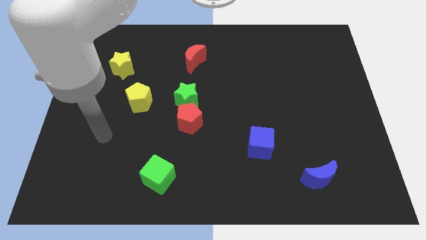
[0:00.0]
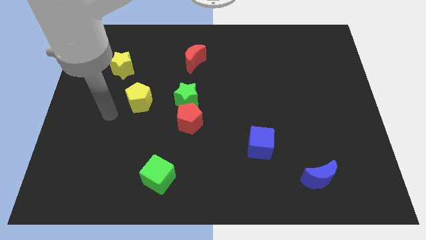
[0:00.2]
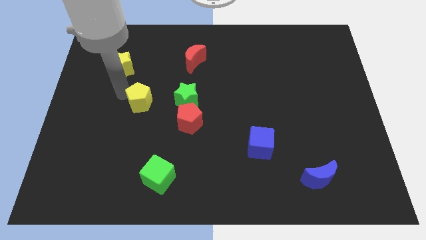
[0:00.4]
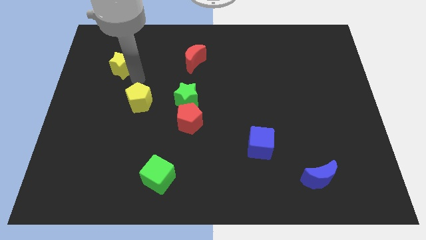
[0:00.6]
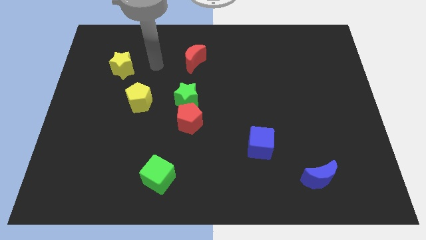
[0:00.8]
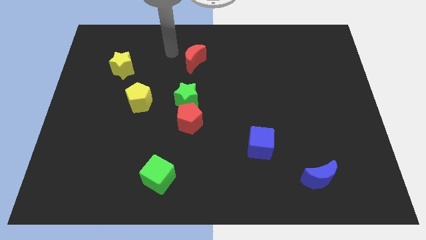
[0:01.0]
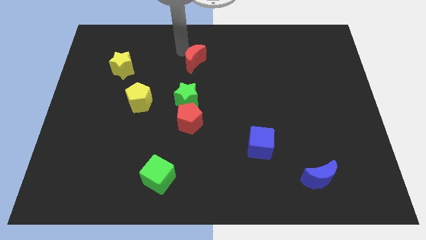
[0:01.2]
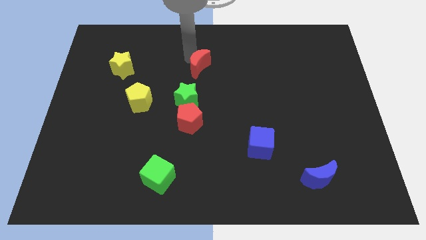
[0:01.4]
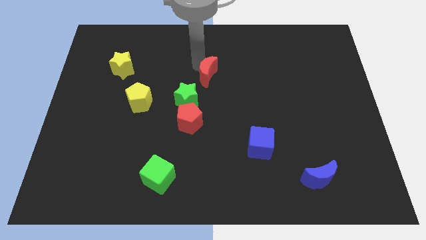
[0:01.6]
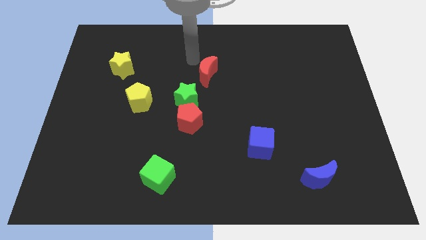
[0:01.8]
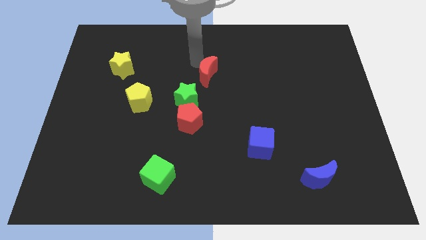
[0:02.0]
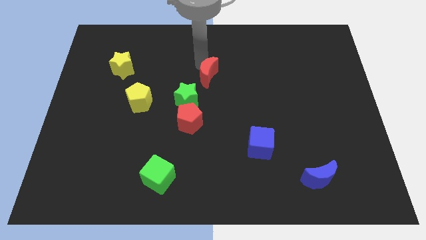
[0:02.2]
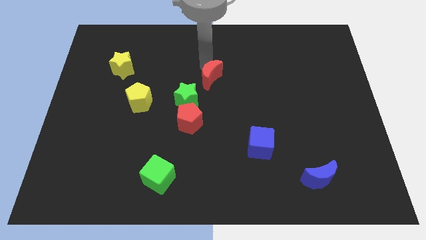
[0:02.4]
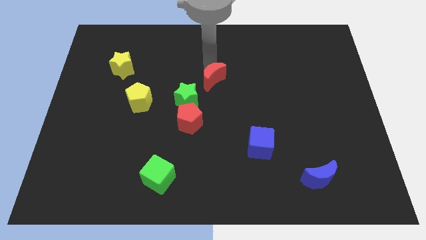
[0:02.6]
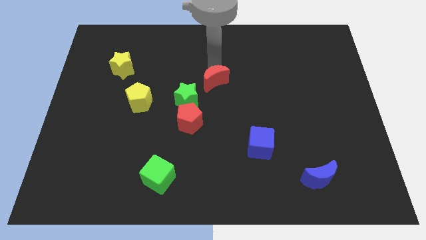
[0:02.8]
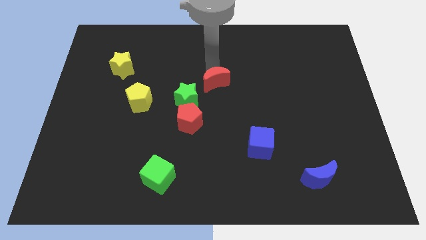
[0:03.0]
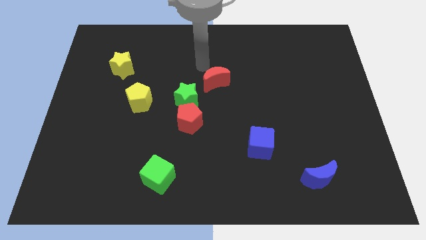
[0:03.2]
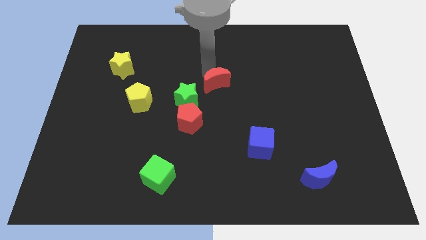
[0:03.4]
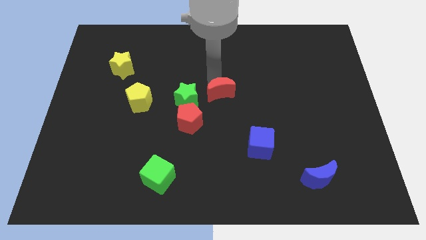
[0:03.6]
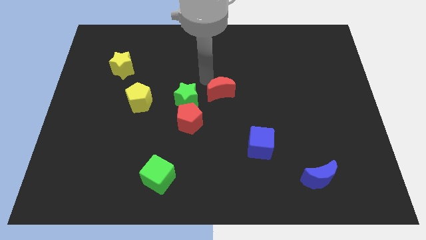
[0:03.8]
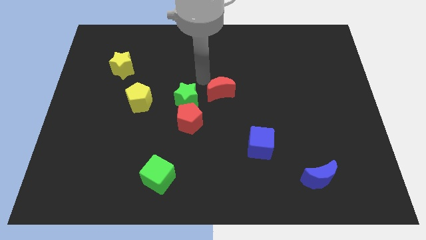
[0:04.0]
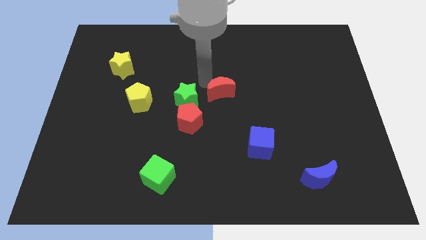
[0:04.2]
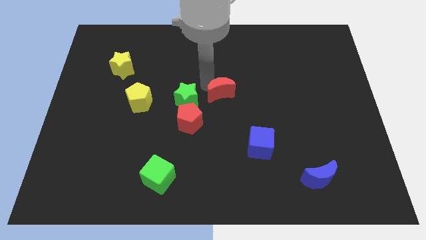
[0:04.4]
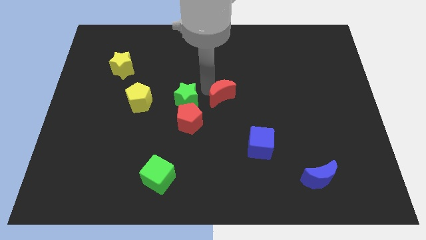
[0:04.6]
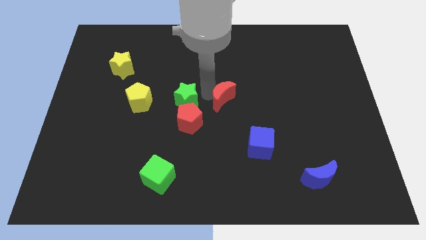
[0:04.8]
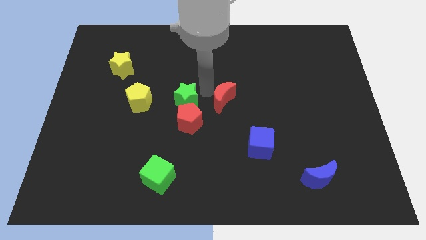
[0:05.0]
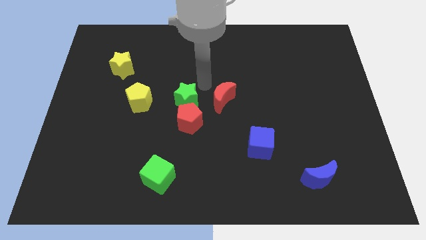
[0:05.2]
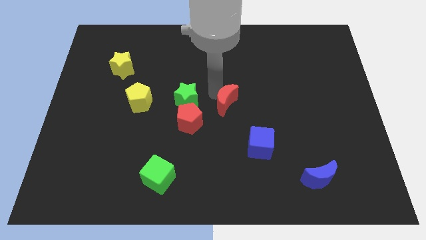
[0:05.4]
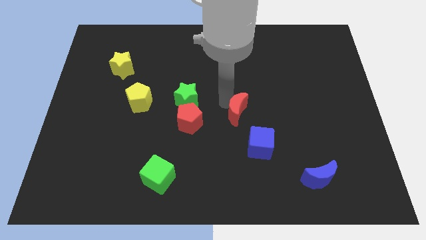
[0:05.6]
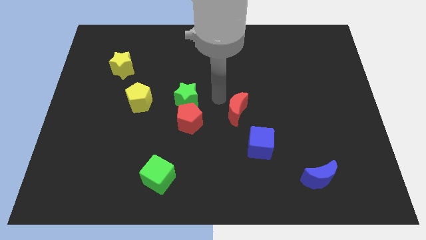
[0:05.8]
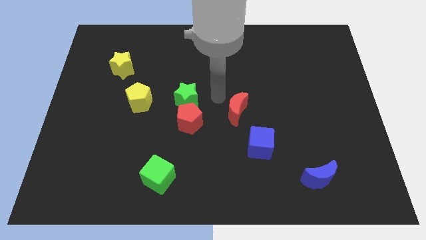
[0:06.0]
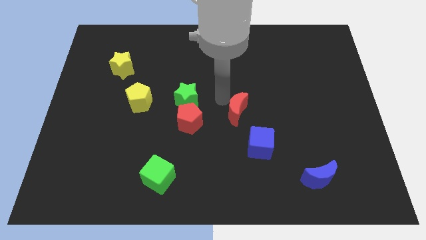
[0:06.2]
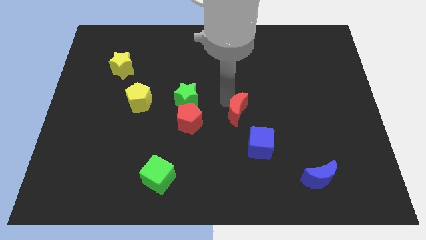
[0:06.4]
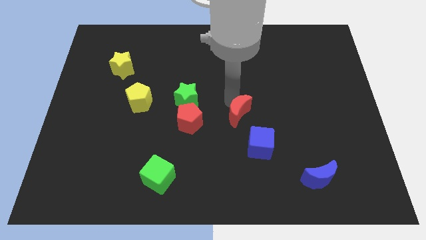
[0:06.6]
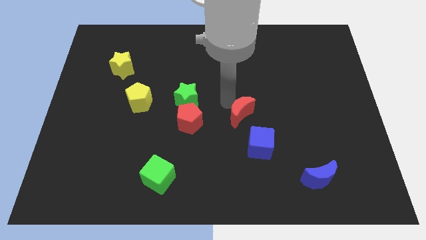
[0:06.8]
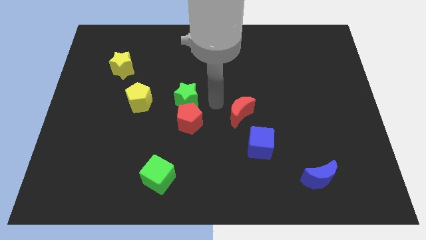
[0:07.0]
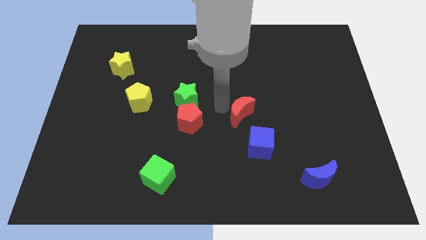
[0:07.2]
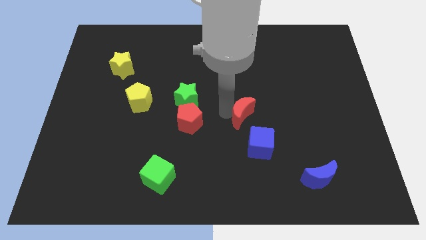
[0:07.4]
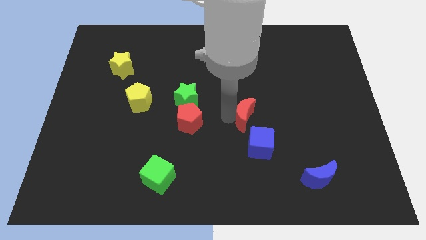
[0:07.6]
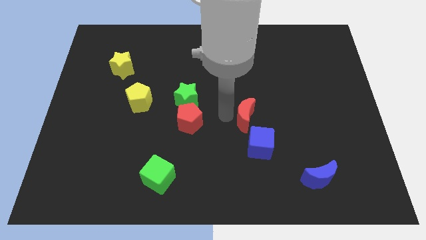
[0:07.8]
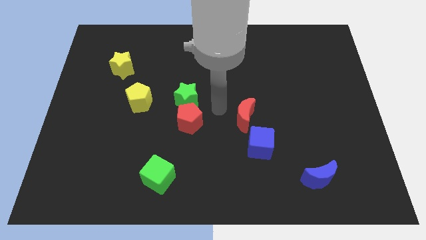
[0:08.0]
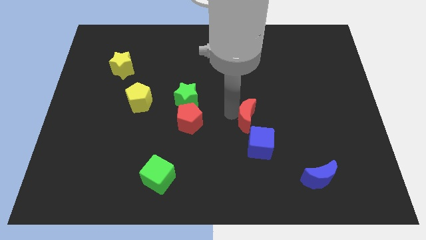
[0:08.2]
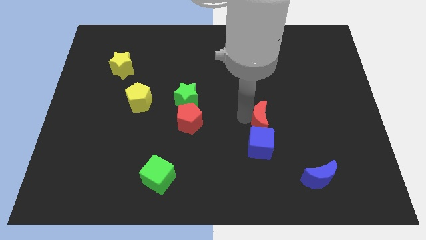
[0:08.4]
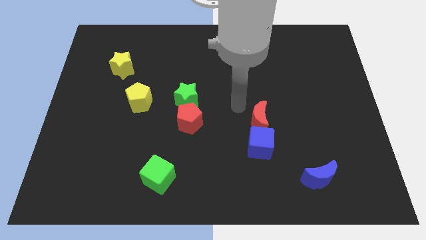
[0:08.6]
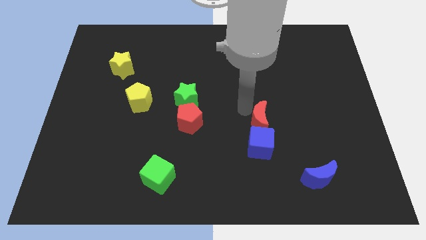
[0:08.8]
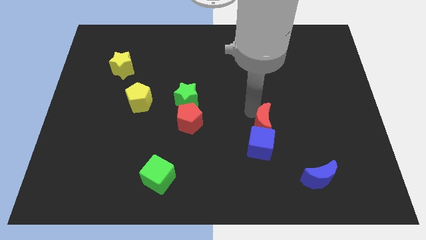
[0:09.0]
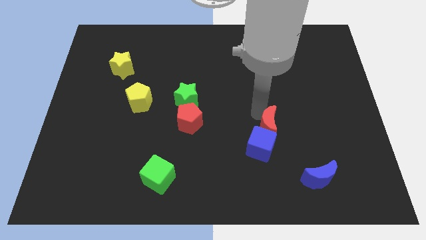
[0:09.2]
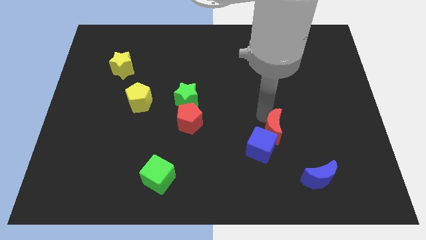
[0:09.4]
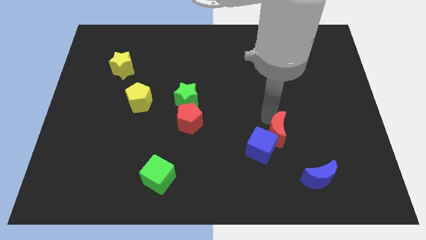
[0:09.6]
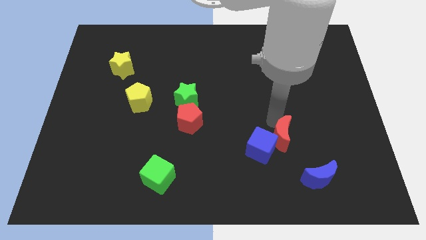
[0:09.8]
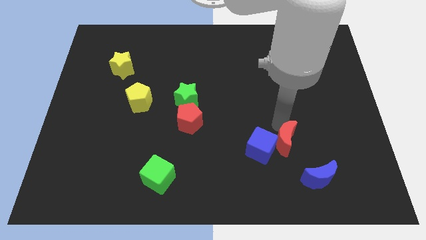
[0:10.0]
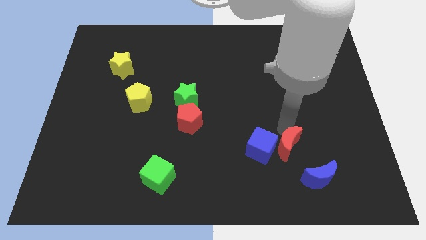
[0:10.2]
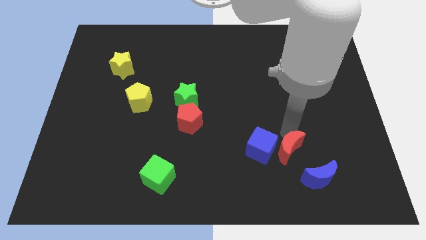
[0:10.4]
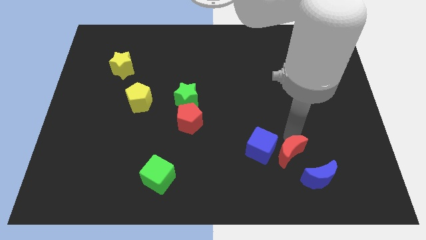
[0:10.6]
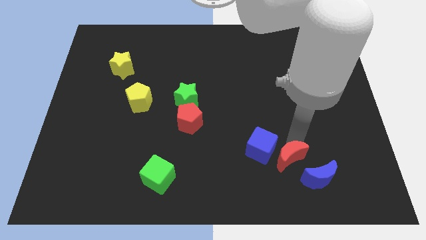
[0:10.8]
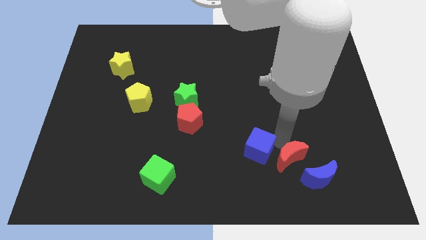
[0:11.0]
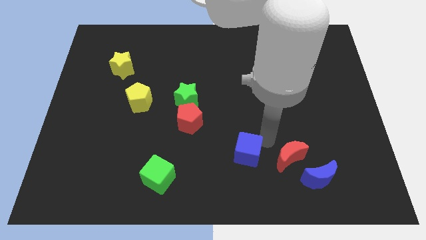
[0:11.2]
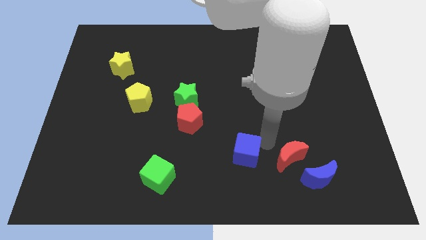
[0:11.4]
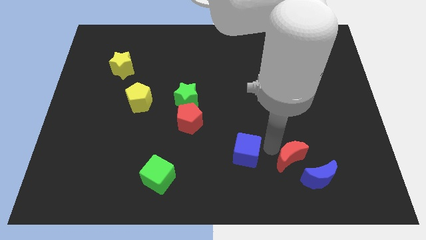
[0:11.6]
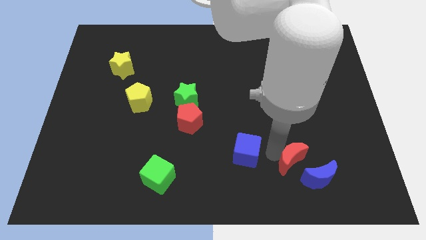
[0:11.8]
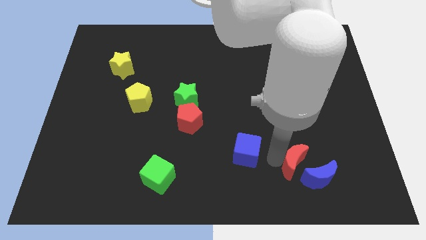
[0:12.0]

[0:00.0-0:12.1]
push the red moon close to the blue moon

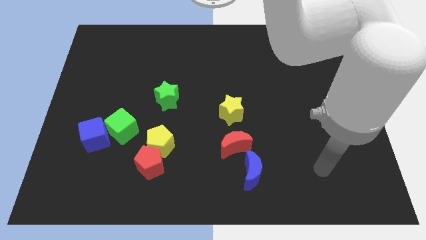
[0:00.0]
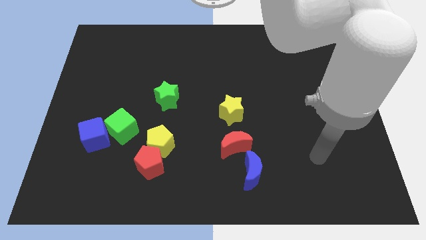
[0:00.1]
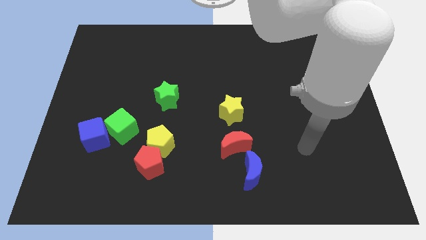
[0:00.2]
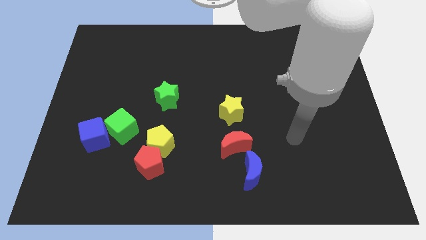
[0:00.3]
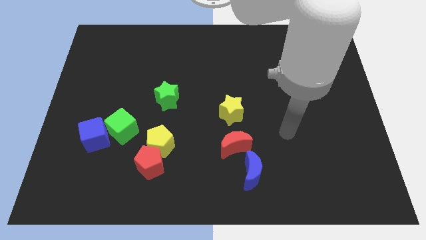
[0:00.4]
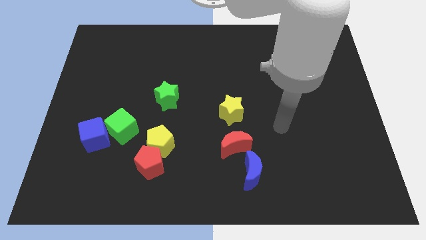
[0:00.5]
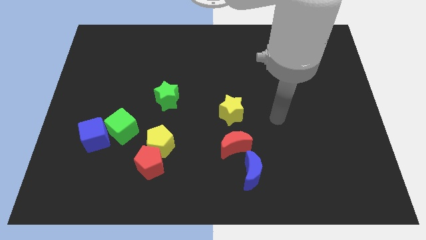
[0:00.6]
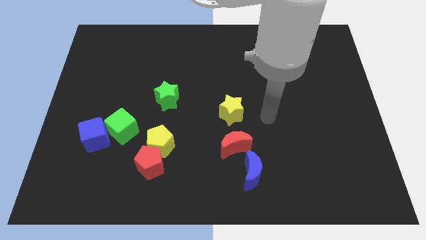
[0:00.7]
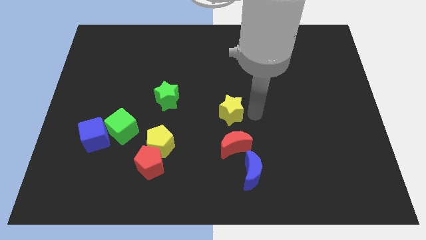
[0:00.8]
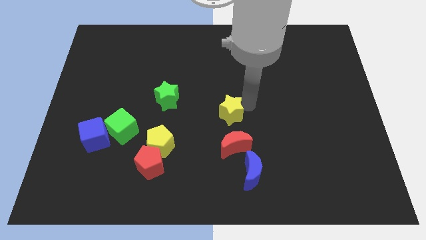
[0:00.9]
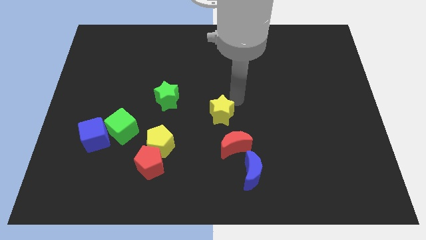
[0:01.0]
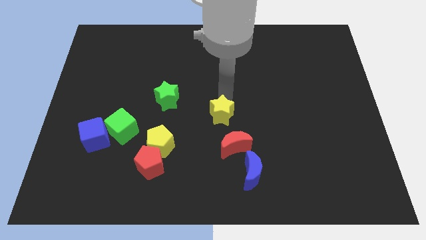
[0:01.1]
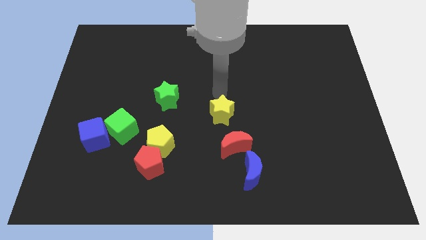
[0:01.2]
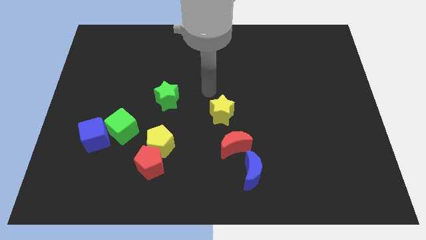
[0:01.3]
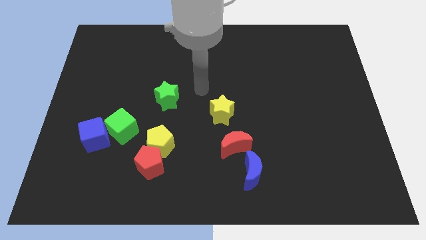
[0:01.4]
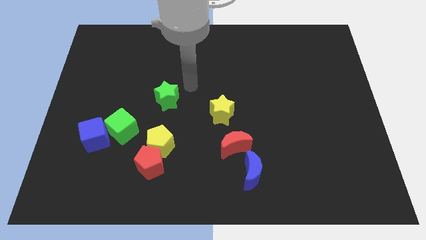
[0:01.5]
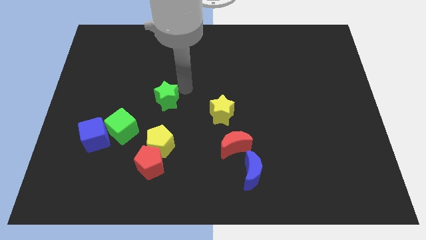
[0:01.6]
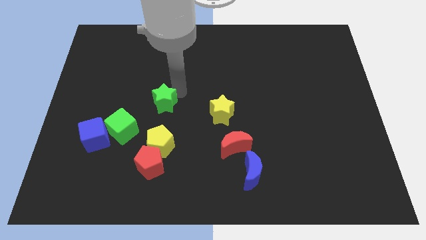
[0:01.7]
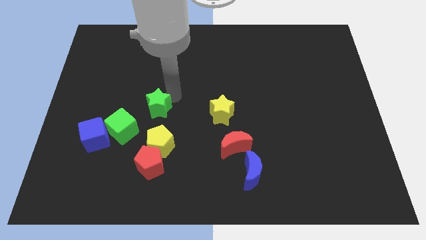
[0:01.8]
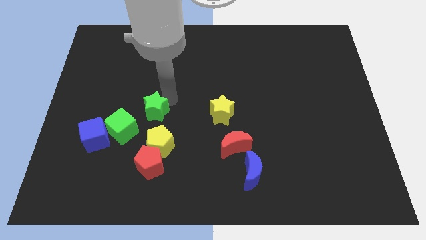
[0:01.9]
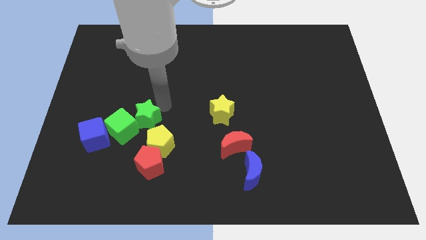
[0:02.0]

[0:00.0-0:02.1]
move the green star close to the green cube
